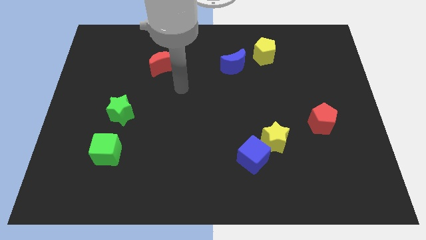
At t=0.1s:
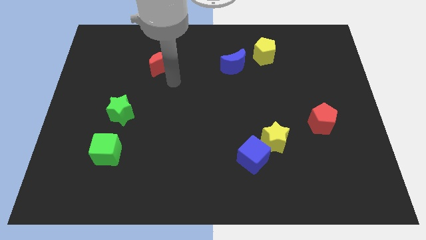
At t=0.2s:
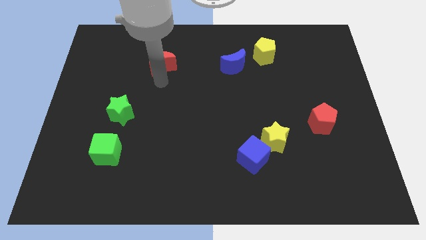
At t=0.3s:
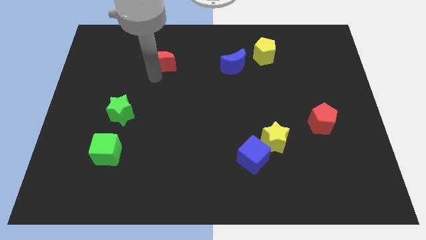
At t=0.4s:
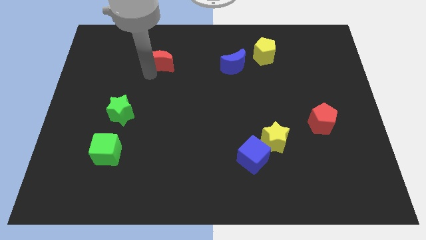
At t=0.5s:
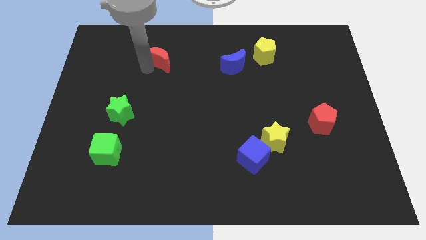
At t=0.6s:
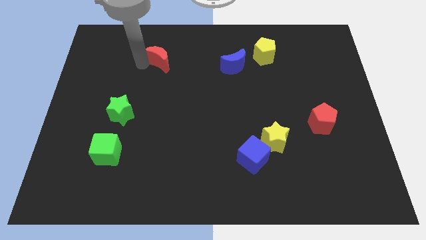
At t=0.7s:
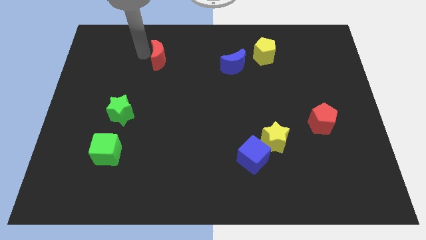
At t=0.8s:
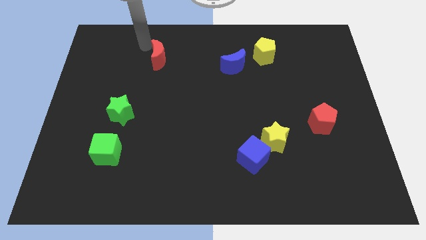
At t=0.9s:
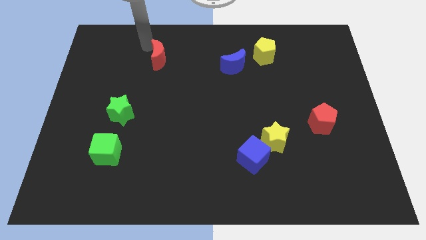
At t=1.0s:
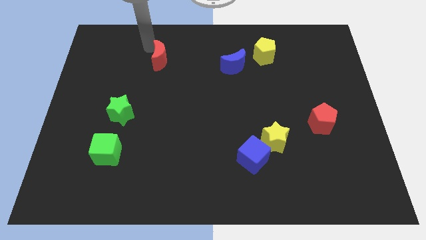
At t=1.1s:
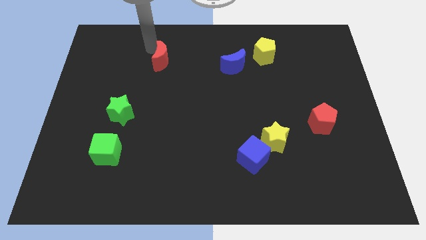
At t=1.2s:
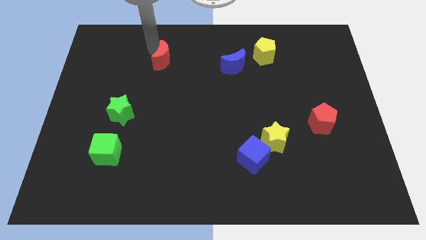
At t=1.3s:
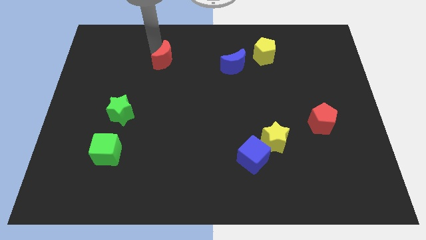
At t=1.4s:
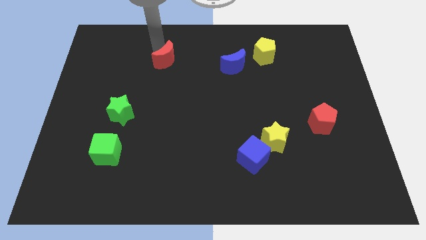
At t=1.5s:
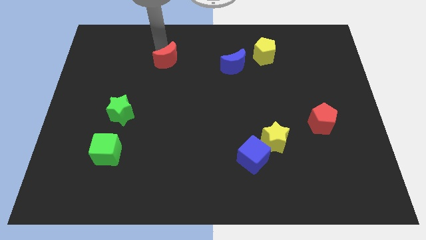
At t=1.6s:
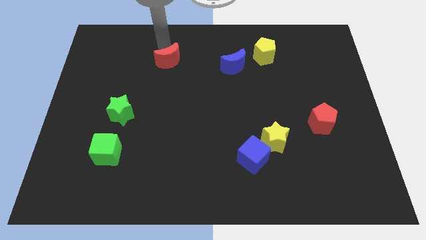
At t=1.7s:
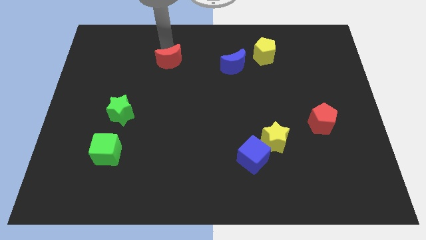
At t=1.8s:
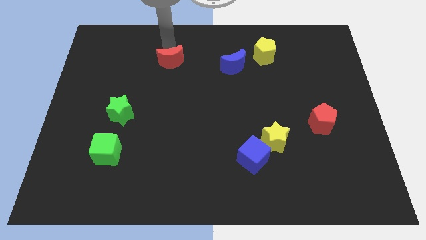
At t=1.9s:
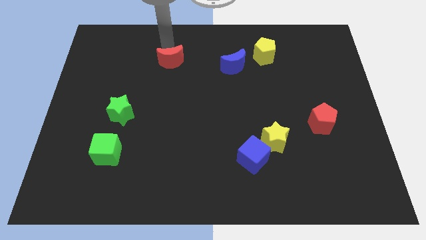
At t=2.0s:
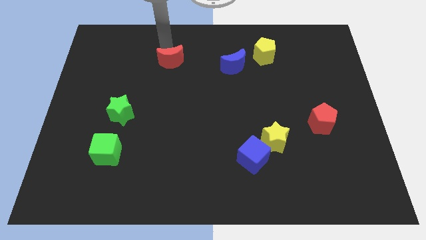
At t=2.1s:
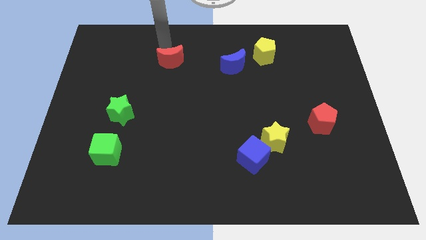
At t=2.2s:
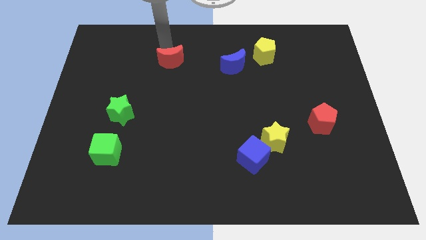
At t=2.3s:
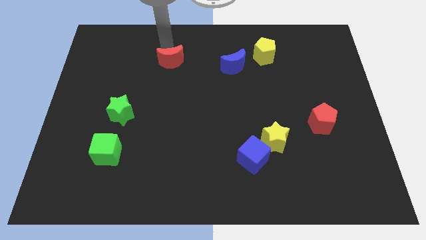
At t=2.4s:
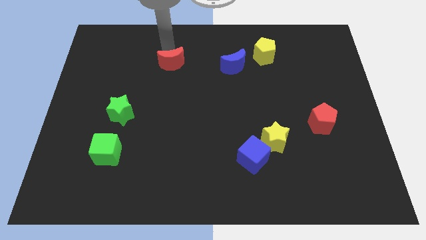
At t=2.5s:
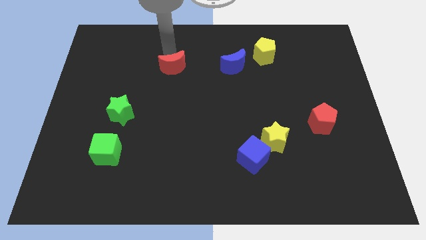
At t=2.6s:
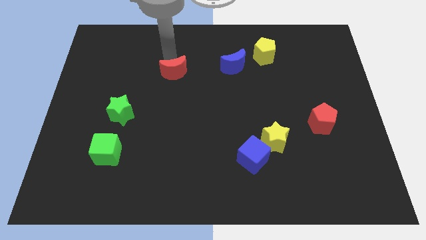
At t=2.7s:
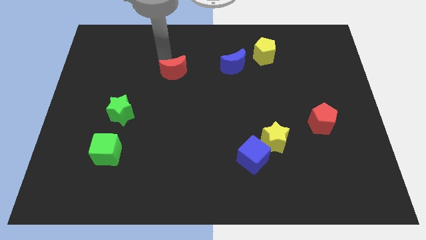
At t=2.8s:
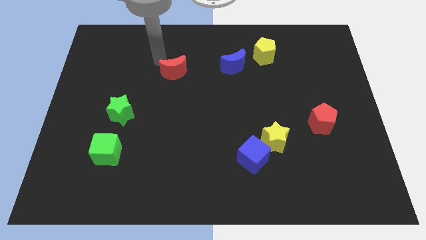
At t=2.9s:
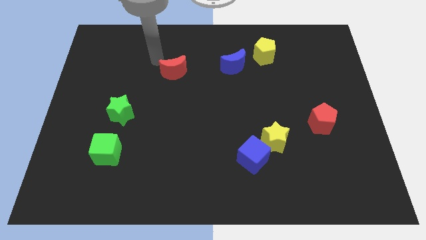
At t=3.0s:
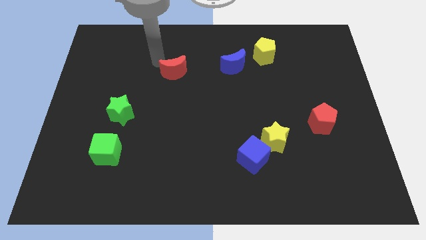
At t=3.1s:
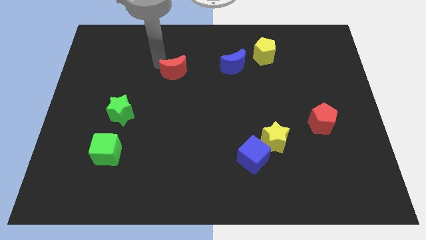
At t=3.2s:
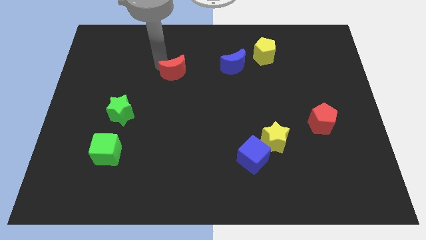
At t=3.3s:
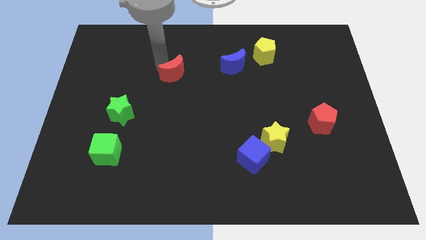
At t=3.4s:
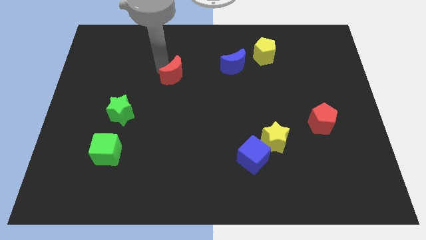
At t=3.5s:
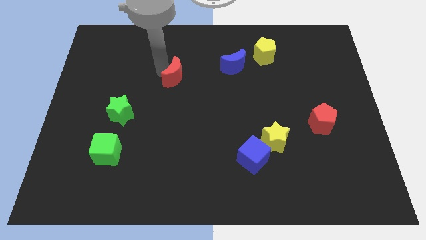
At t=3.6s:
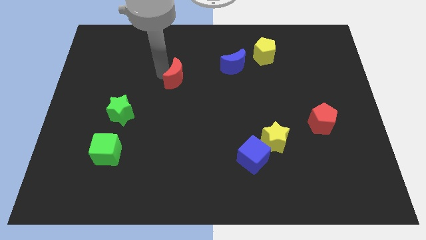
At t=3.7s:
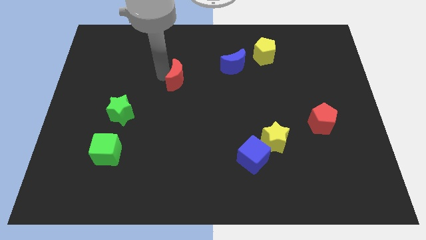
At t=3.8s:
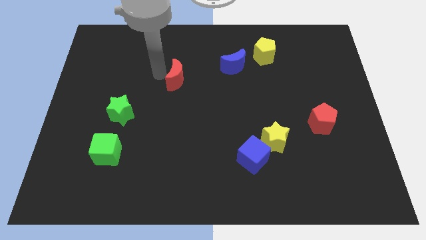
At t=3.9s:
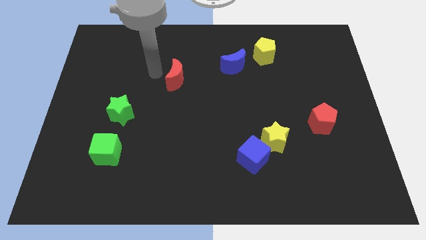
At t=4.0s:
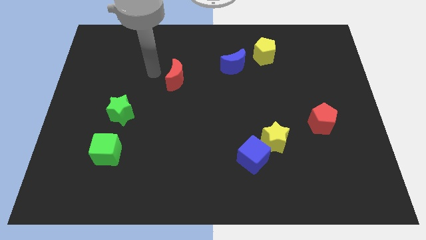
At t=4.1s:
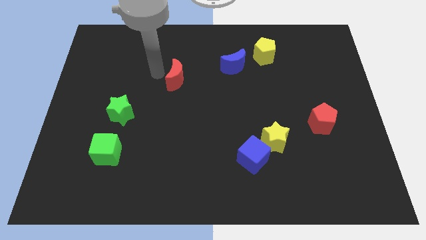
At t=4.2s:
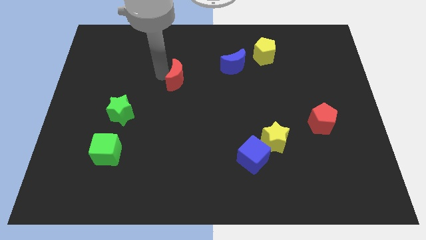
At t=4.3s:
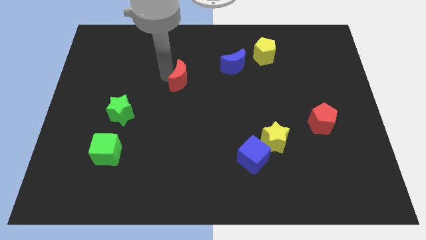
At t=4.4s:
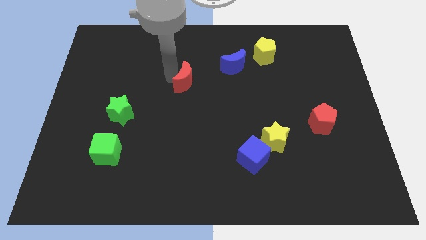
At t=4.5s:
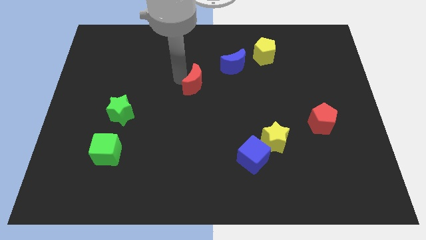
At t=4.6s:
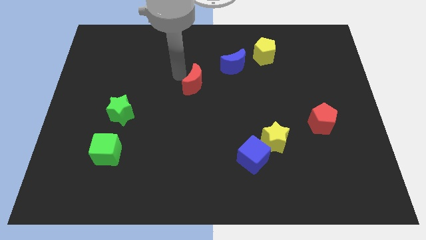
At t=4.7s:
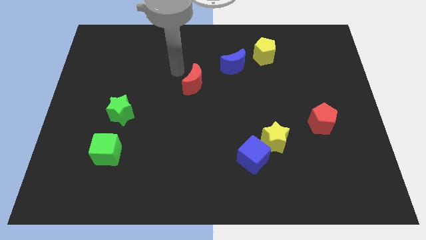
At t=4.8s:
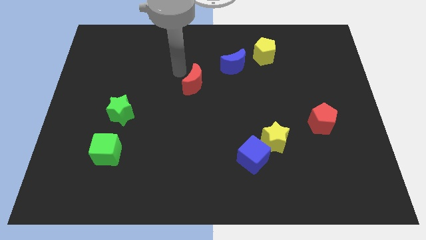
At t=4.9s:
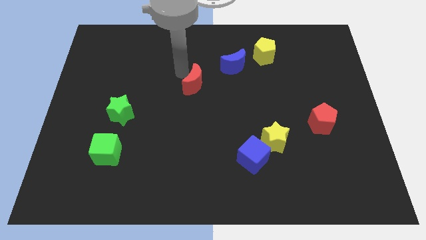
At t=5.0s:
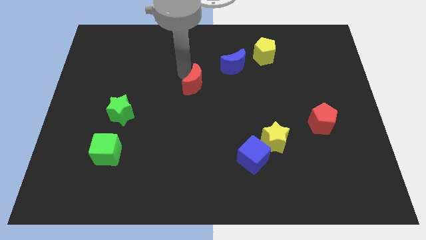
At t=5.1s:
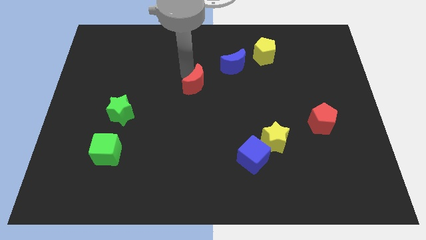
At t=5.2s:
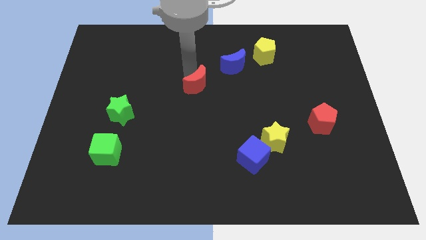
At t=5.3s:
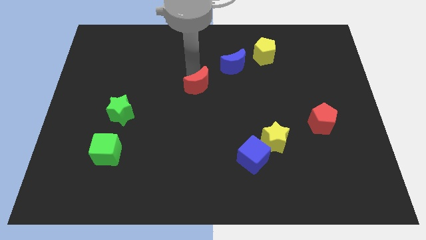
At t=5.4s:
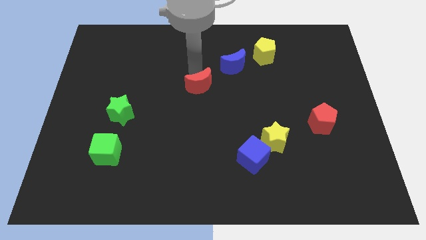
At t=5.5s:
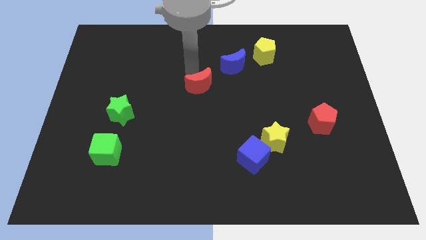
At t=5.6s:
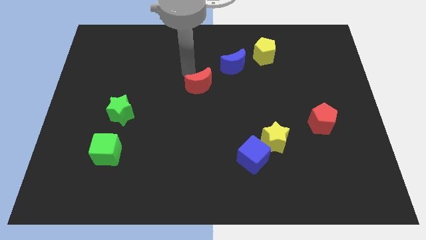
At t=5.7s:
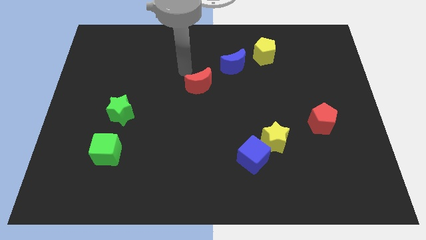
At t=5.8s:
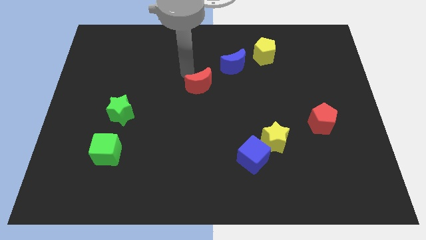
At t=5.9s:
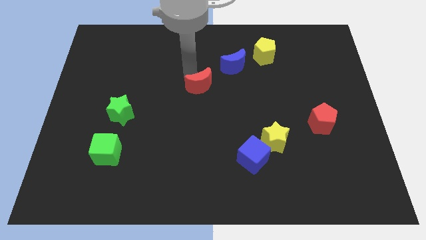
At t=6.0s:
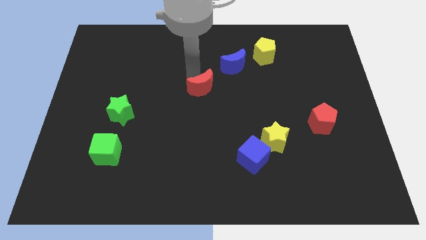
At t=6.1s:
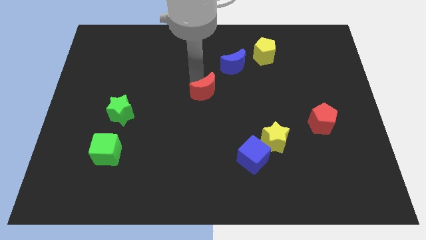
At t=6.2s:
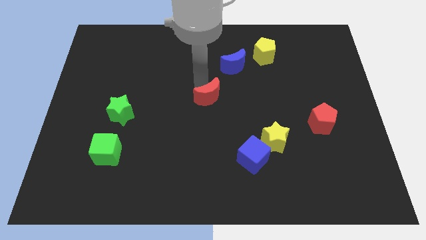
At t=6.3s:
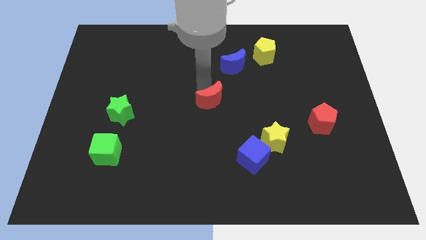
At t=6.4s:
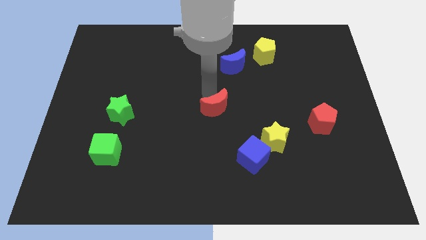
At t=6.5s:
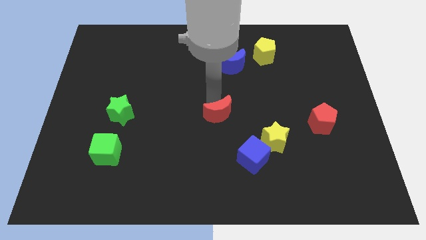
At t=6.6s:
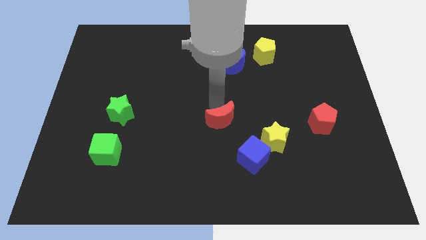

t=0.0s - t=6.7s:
move the red moon to the top left side of the blue cube
